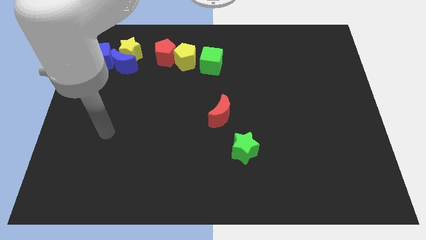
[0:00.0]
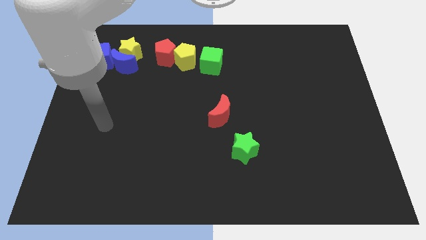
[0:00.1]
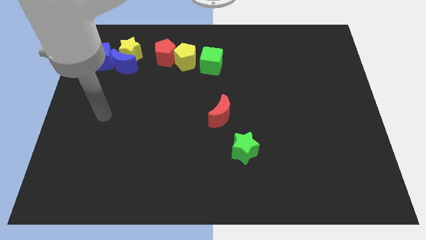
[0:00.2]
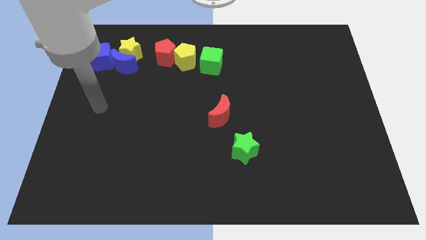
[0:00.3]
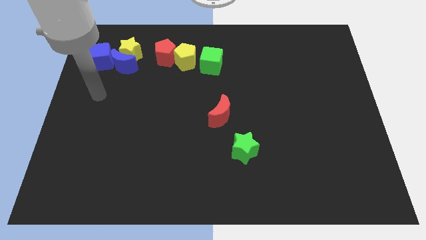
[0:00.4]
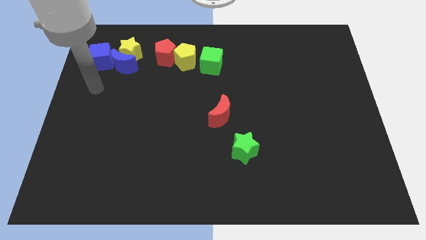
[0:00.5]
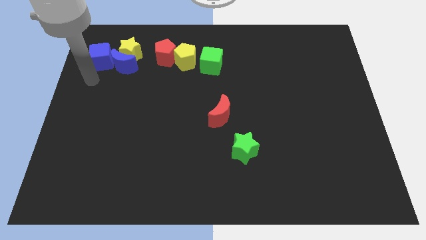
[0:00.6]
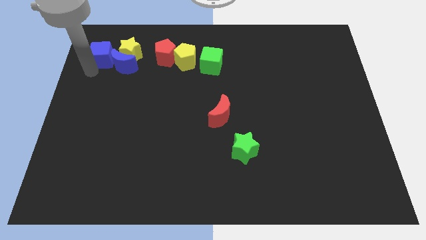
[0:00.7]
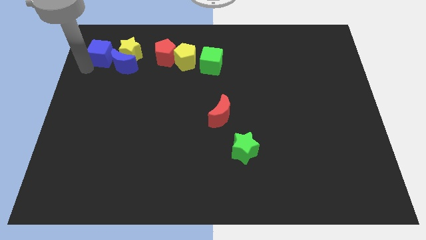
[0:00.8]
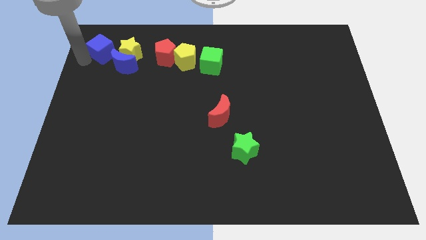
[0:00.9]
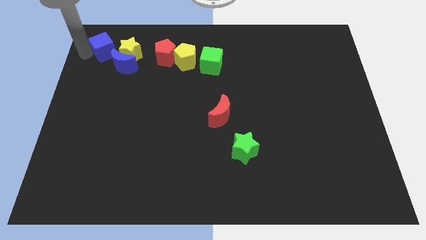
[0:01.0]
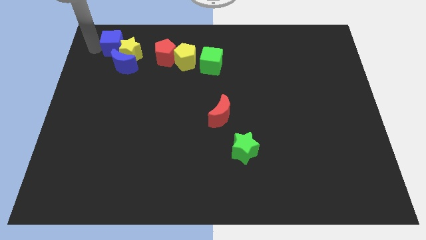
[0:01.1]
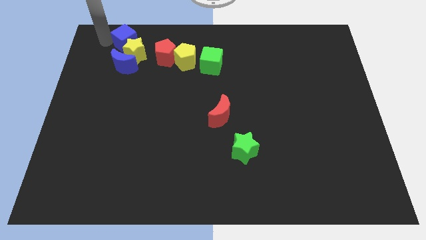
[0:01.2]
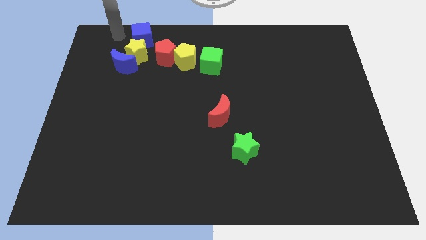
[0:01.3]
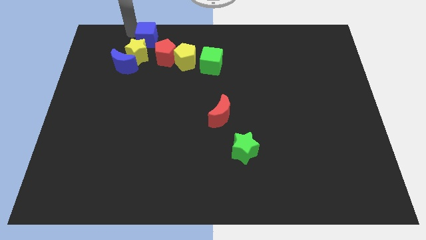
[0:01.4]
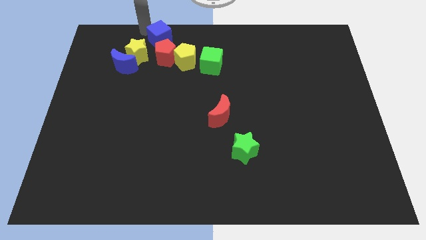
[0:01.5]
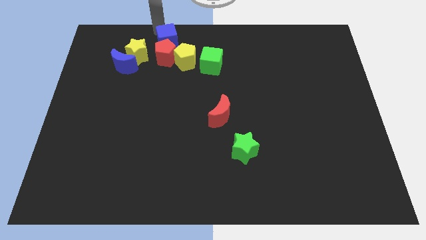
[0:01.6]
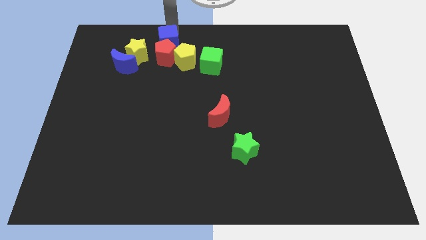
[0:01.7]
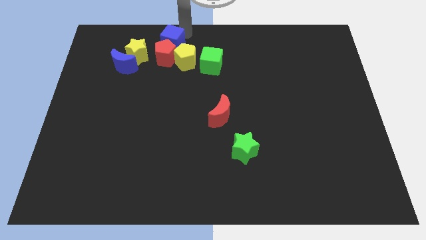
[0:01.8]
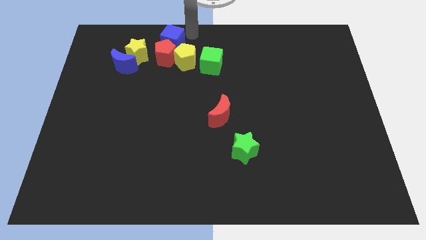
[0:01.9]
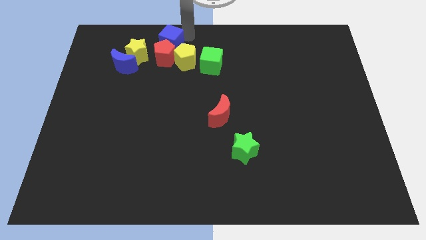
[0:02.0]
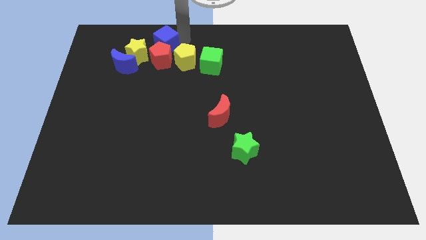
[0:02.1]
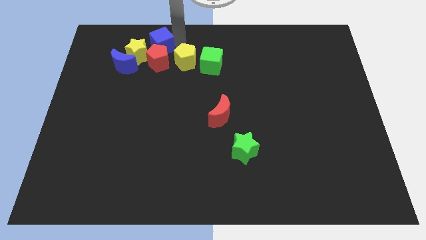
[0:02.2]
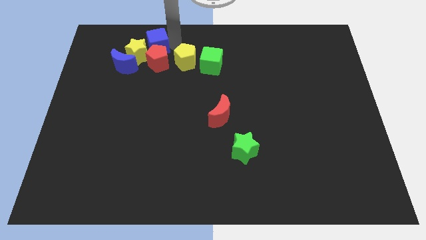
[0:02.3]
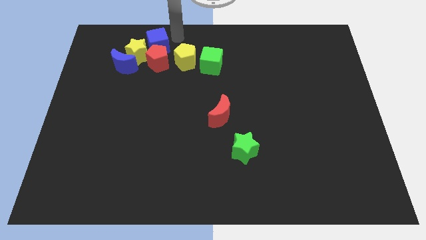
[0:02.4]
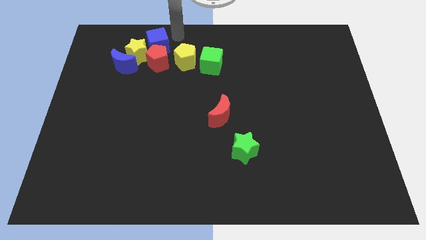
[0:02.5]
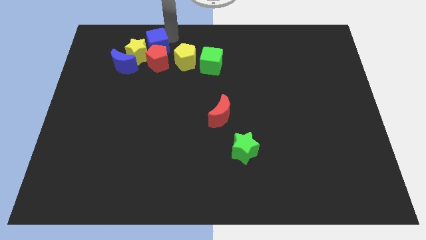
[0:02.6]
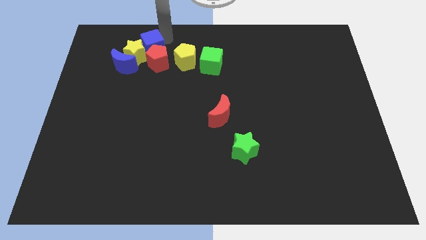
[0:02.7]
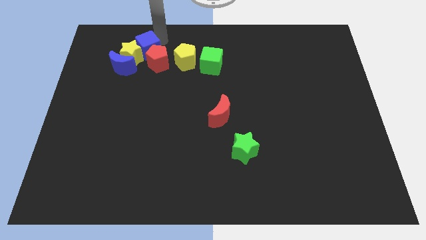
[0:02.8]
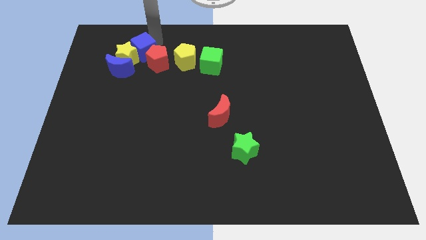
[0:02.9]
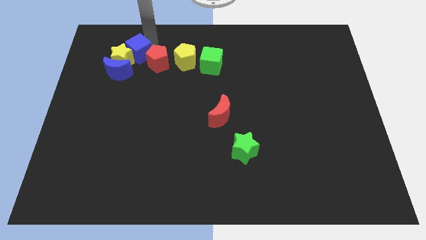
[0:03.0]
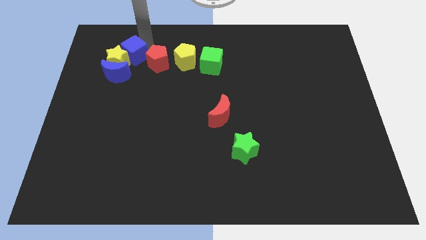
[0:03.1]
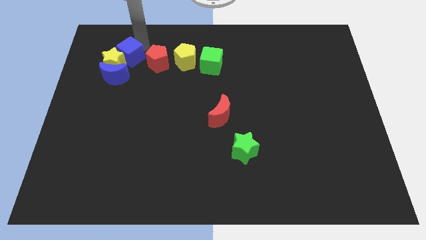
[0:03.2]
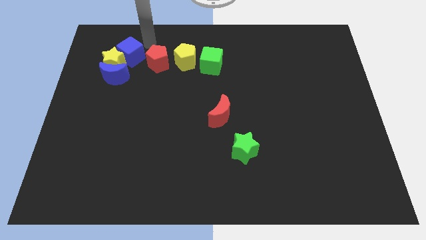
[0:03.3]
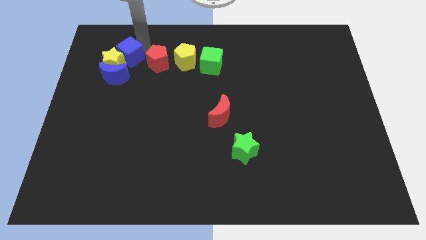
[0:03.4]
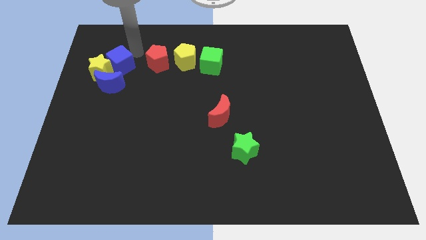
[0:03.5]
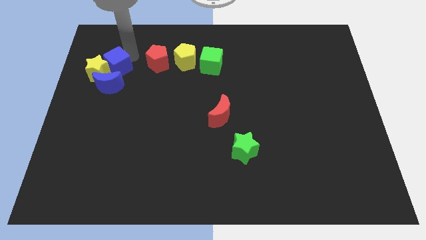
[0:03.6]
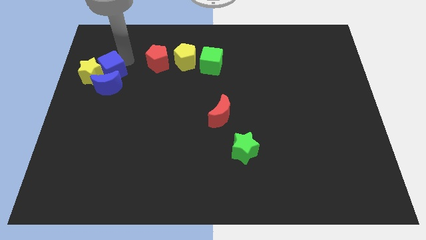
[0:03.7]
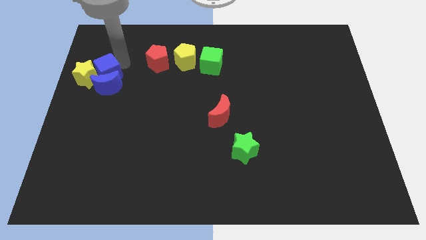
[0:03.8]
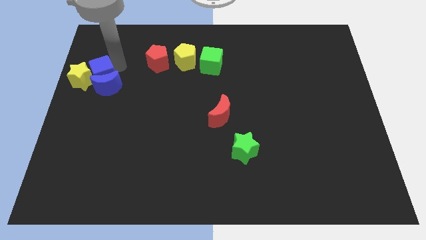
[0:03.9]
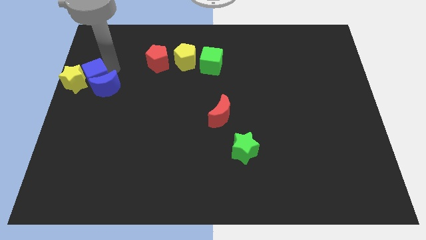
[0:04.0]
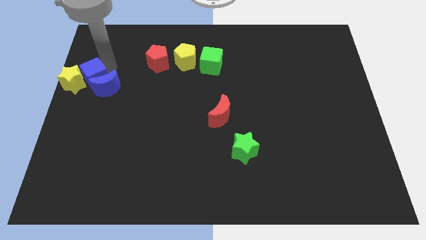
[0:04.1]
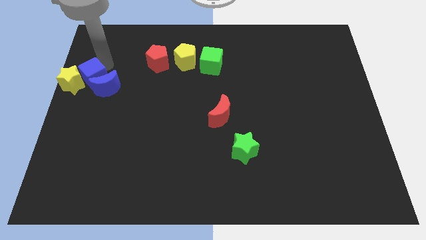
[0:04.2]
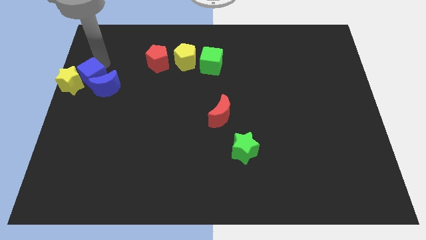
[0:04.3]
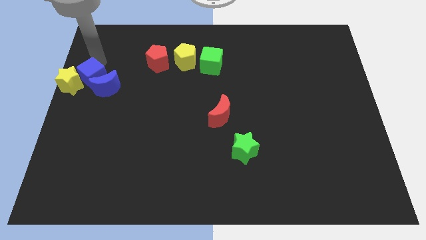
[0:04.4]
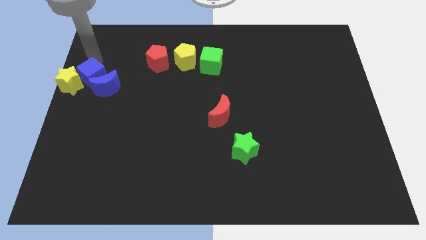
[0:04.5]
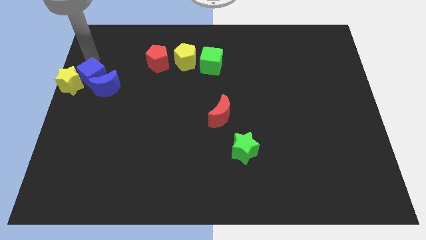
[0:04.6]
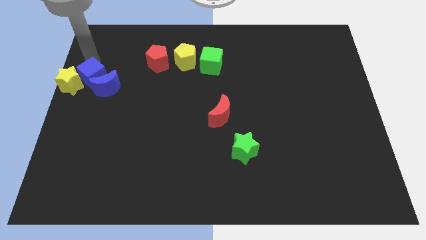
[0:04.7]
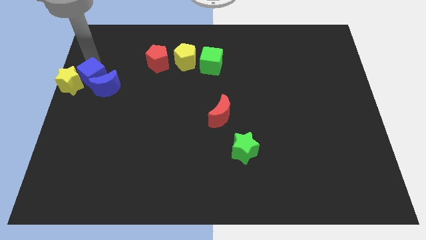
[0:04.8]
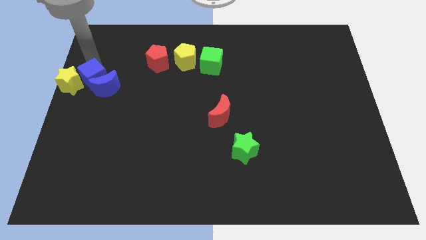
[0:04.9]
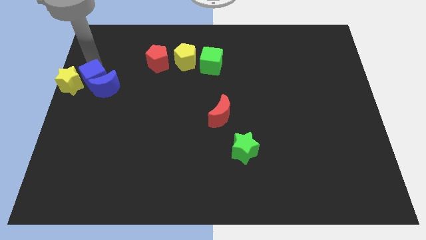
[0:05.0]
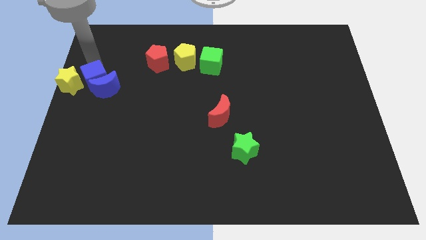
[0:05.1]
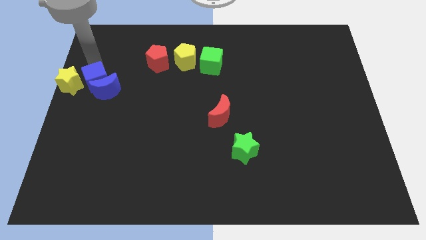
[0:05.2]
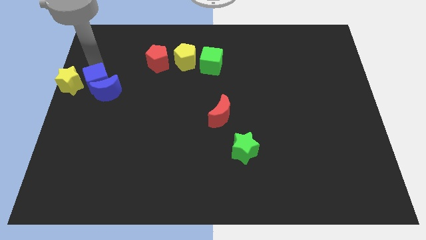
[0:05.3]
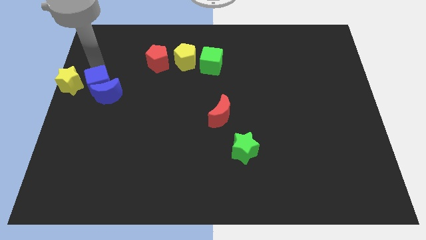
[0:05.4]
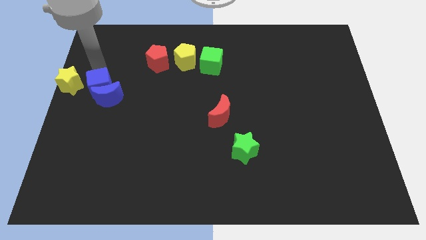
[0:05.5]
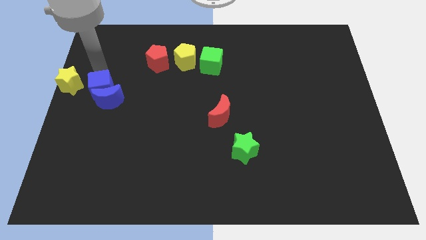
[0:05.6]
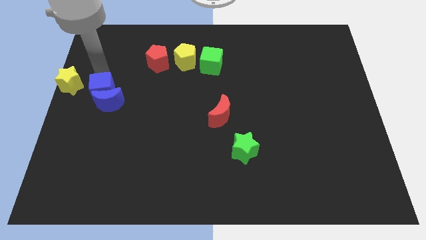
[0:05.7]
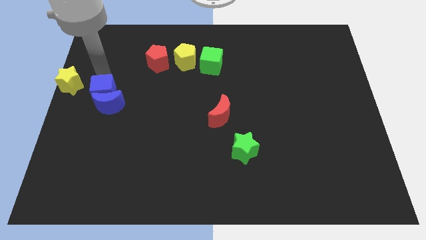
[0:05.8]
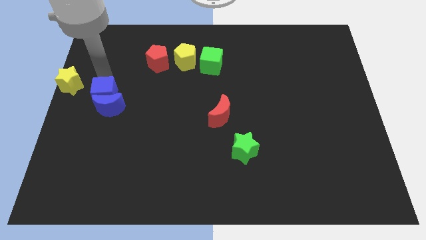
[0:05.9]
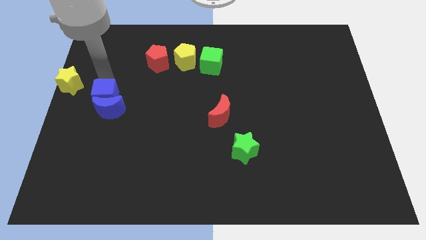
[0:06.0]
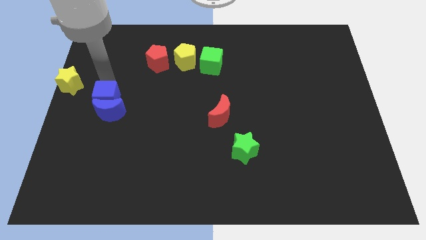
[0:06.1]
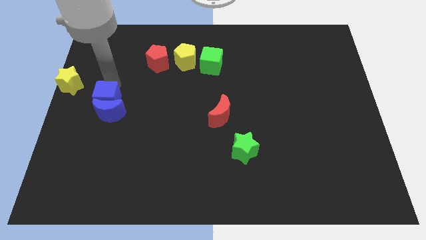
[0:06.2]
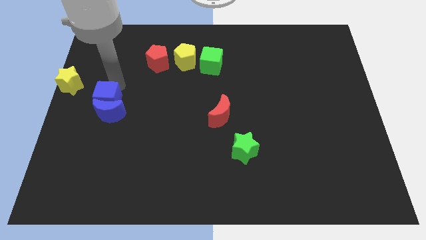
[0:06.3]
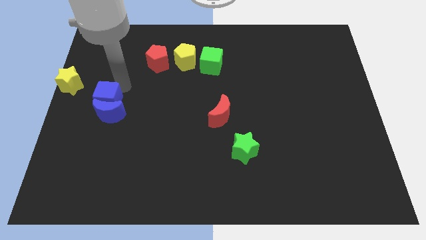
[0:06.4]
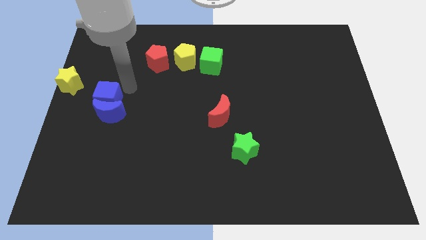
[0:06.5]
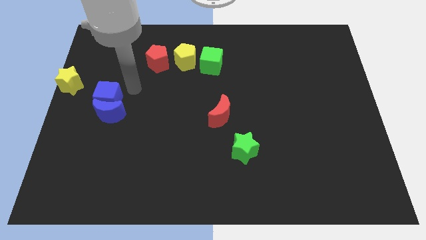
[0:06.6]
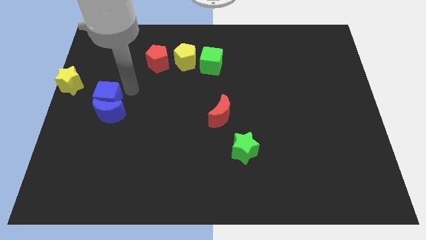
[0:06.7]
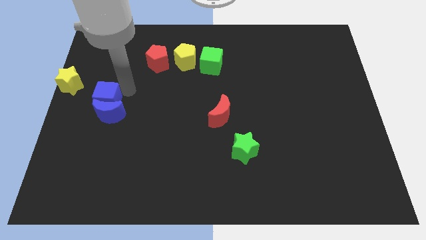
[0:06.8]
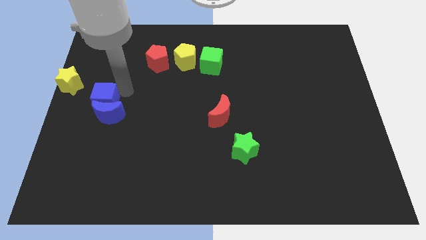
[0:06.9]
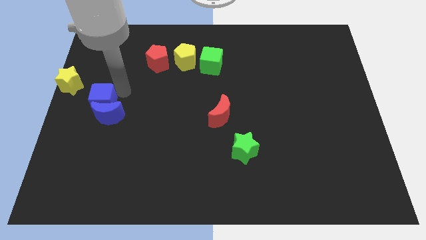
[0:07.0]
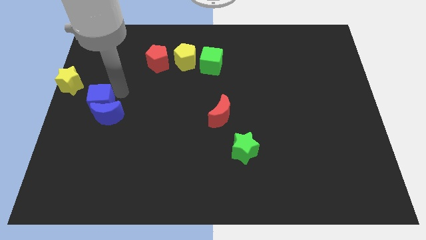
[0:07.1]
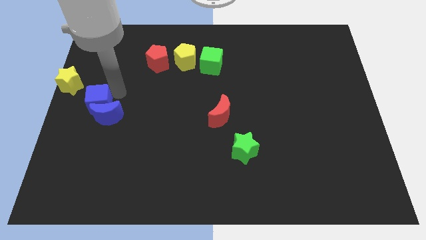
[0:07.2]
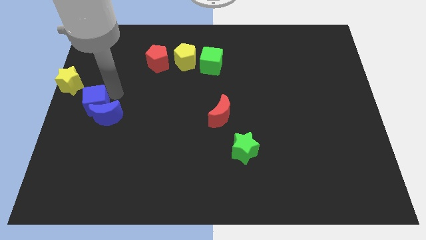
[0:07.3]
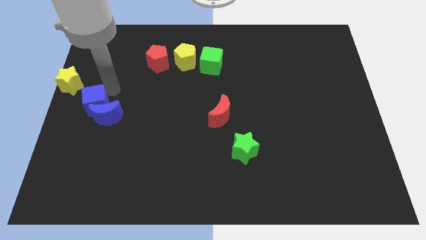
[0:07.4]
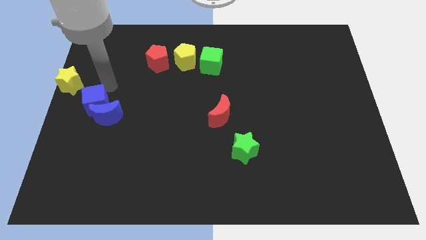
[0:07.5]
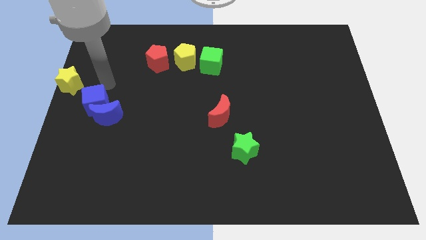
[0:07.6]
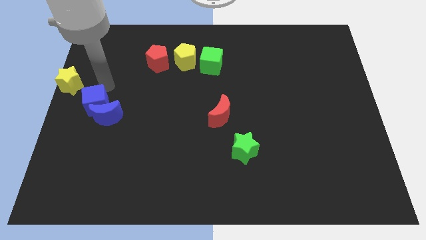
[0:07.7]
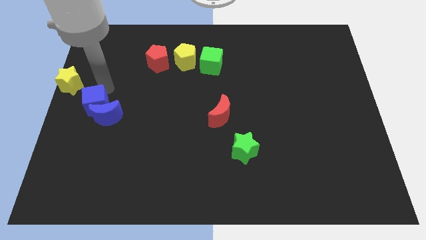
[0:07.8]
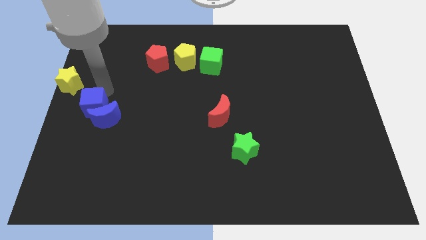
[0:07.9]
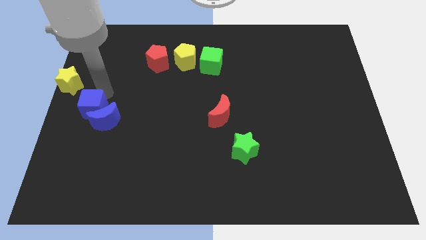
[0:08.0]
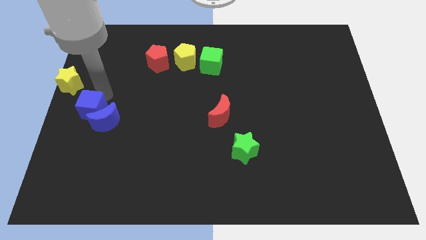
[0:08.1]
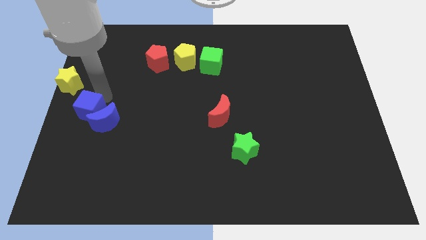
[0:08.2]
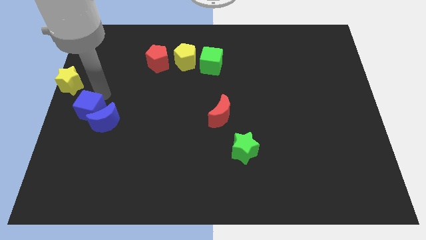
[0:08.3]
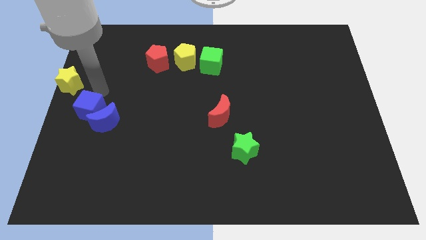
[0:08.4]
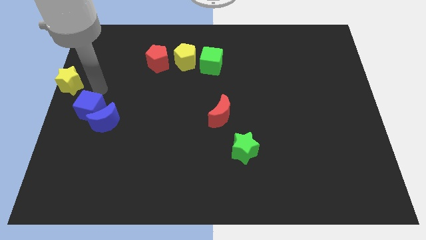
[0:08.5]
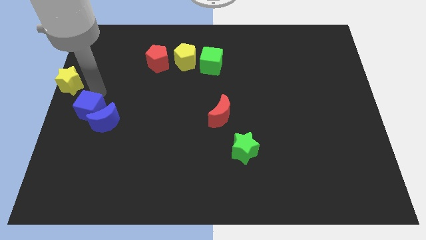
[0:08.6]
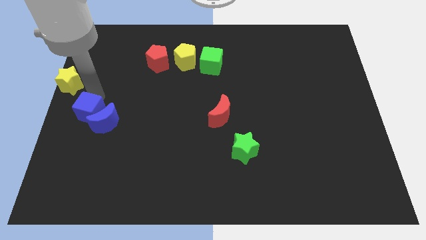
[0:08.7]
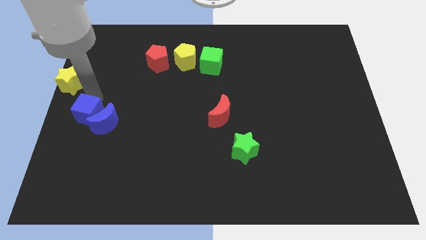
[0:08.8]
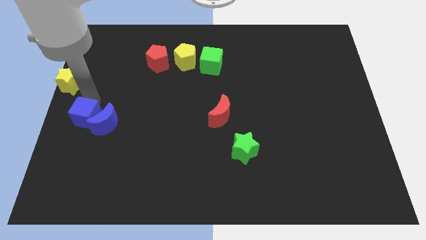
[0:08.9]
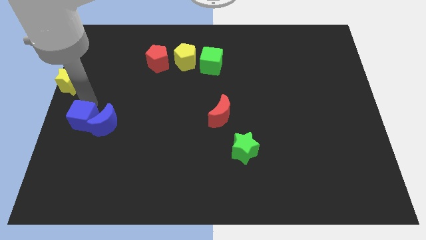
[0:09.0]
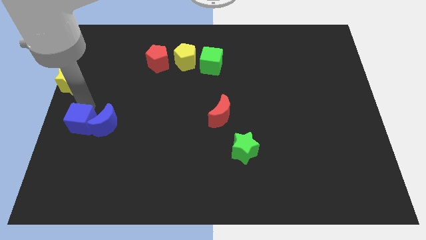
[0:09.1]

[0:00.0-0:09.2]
slide the blue cube down
